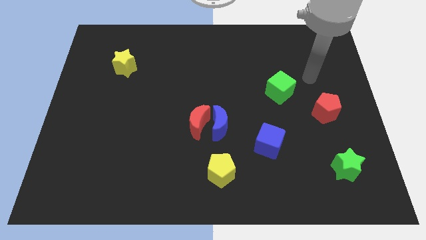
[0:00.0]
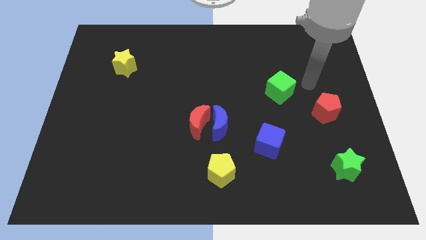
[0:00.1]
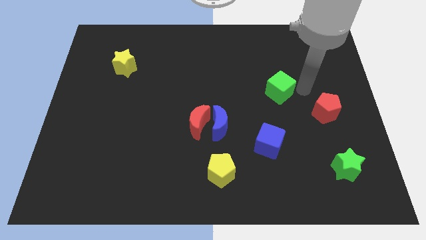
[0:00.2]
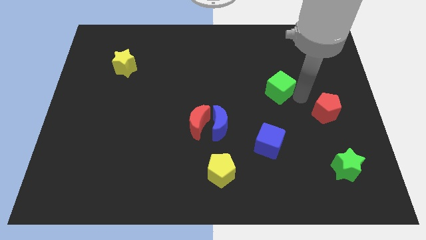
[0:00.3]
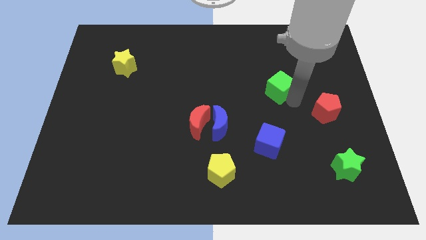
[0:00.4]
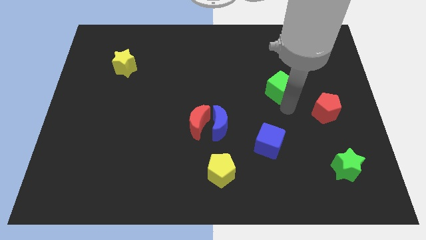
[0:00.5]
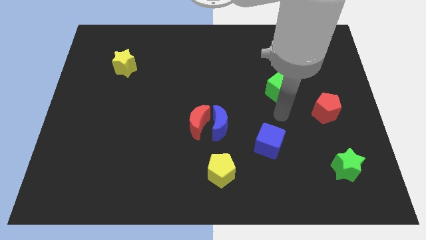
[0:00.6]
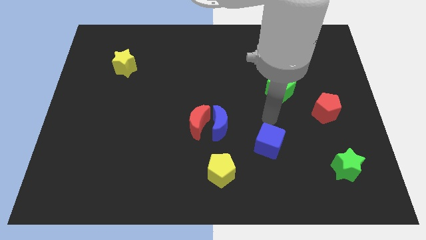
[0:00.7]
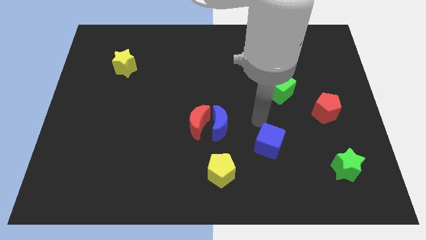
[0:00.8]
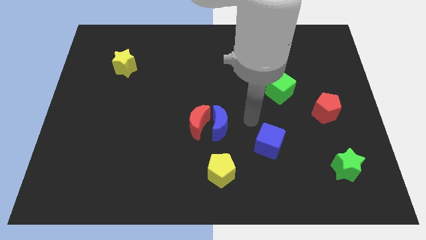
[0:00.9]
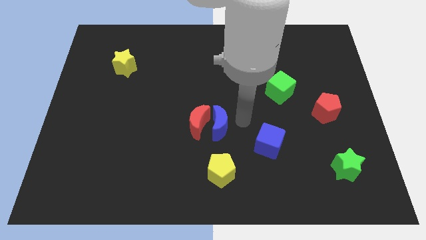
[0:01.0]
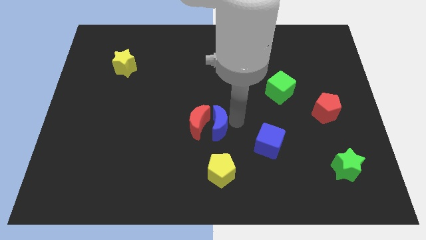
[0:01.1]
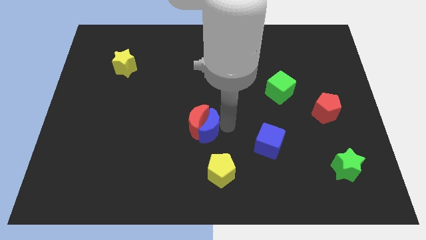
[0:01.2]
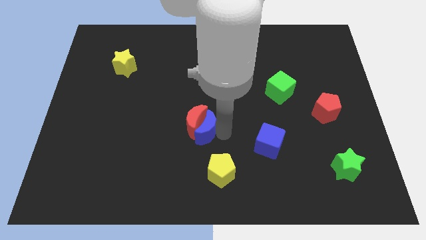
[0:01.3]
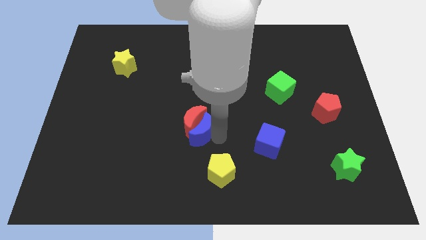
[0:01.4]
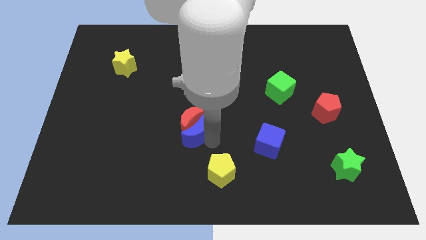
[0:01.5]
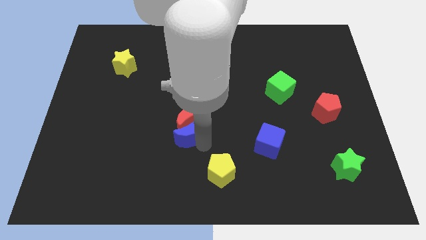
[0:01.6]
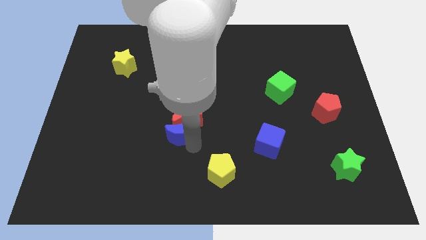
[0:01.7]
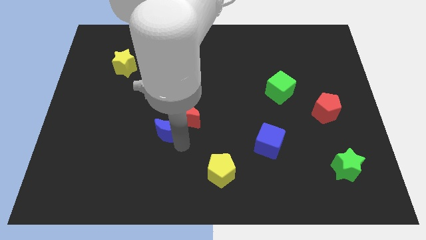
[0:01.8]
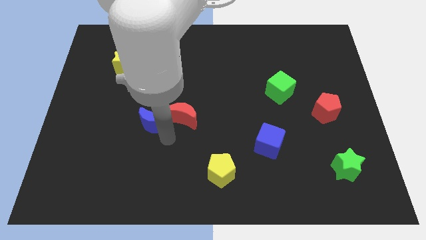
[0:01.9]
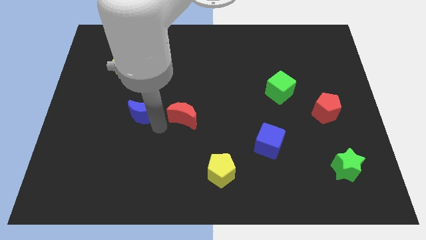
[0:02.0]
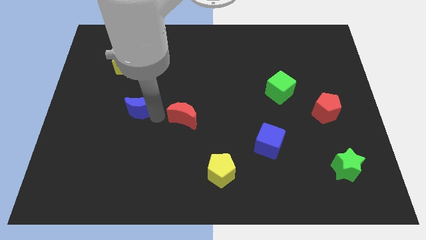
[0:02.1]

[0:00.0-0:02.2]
separate the red moon from the blue moon

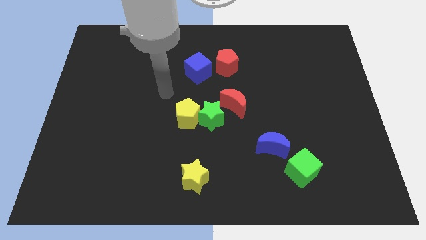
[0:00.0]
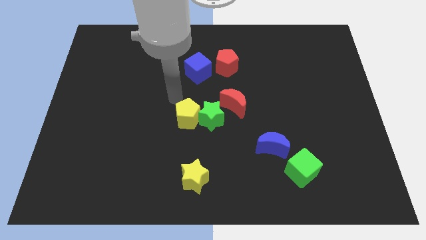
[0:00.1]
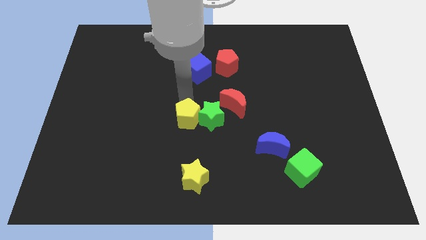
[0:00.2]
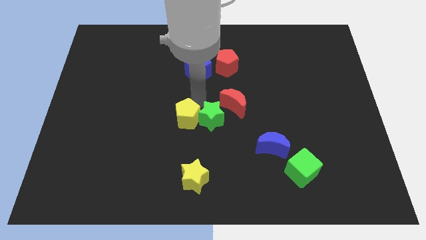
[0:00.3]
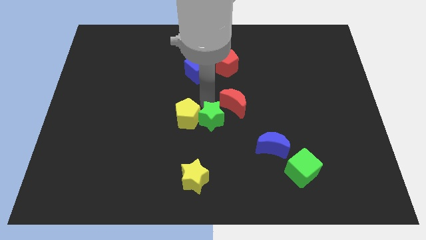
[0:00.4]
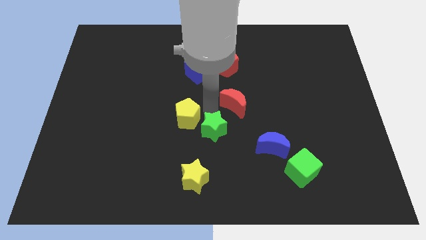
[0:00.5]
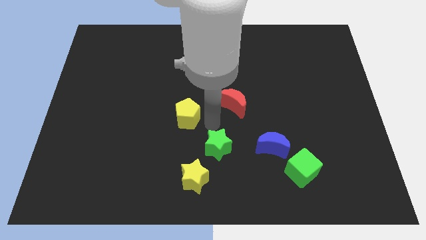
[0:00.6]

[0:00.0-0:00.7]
pull the yellow pentagon apart from the green star

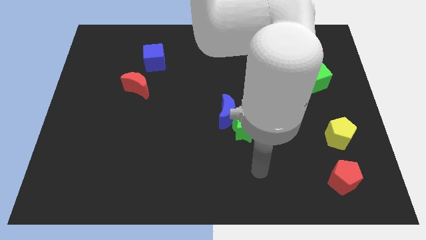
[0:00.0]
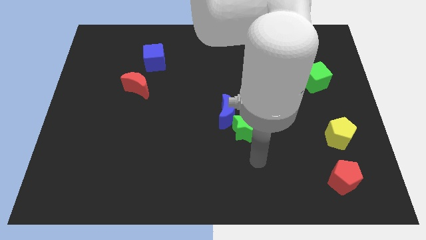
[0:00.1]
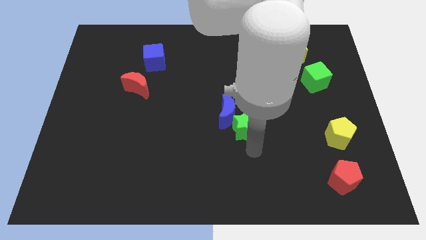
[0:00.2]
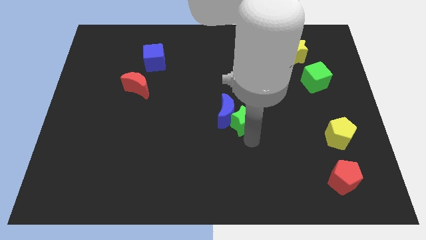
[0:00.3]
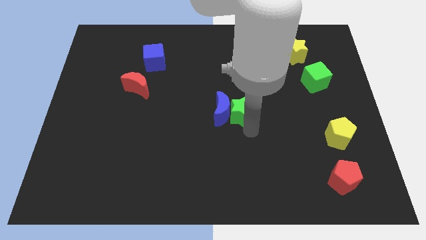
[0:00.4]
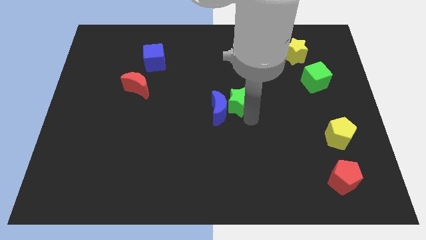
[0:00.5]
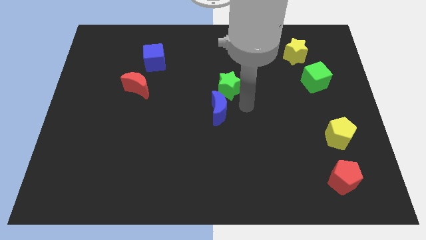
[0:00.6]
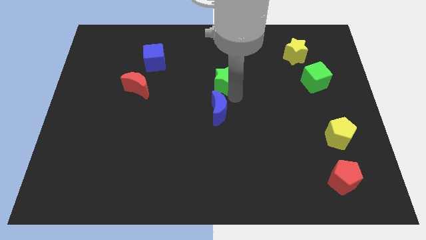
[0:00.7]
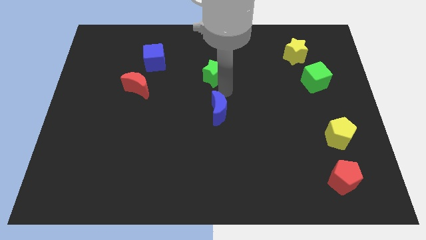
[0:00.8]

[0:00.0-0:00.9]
move the blue moon away from the green star

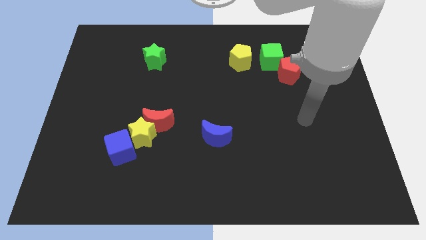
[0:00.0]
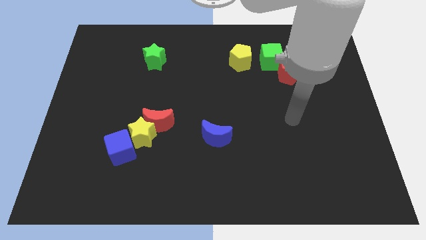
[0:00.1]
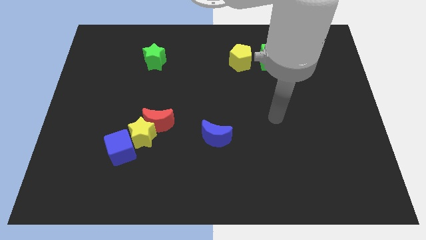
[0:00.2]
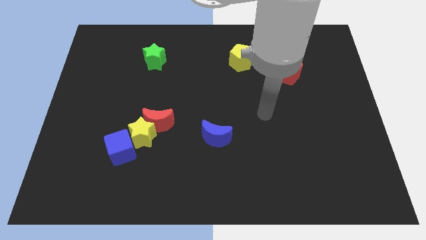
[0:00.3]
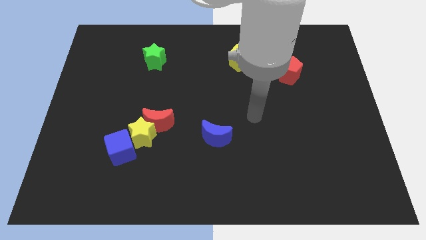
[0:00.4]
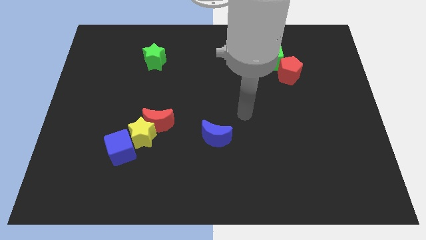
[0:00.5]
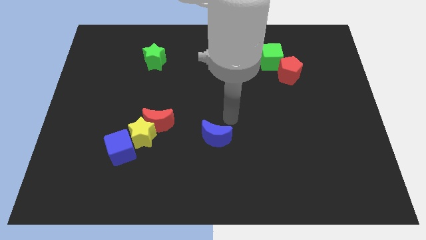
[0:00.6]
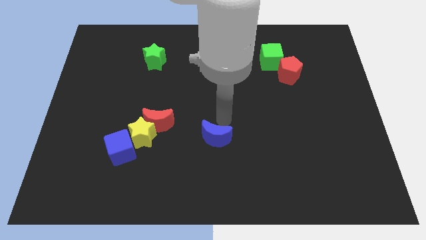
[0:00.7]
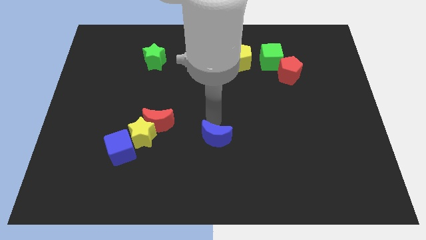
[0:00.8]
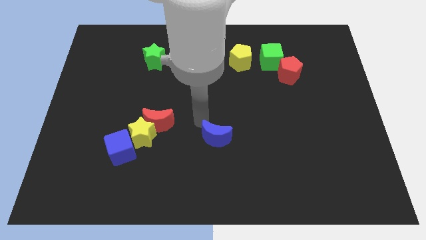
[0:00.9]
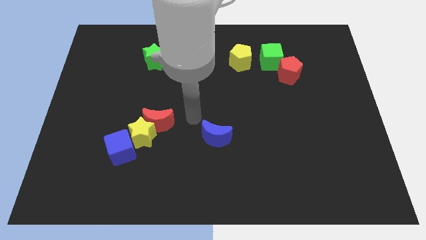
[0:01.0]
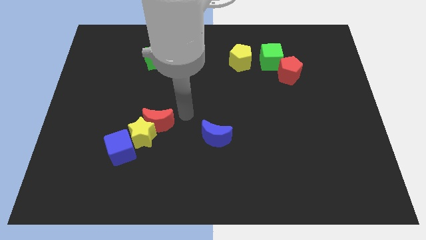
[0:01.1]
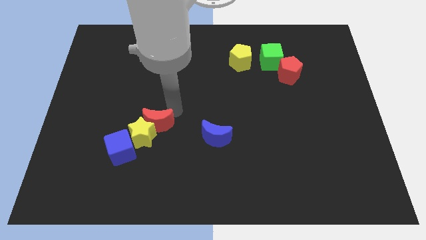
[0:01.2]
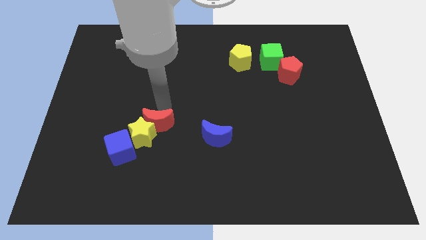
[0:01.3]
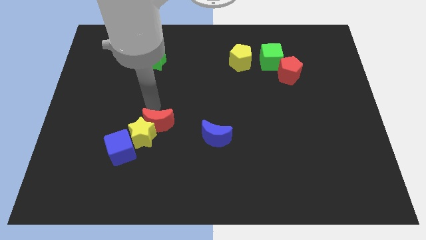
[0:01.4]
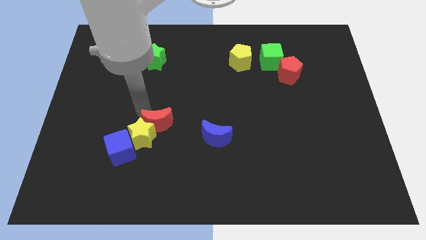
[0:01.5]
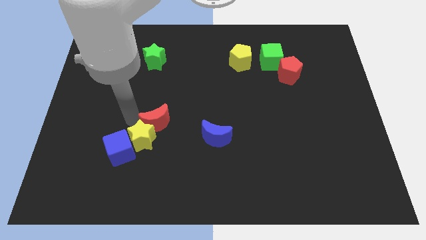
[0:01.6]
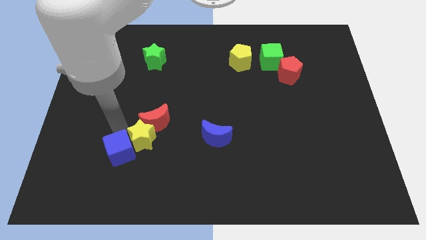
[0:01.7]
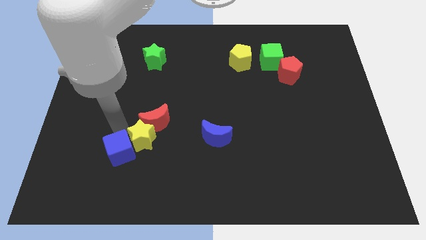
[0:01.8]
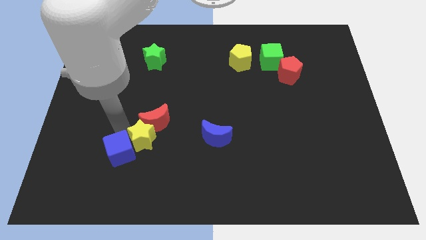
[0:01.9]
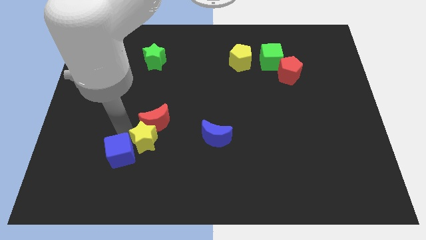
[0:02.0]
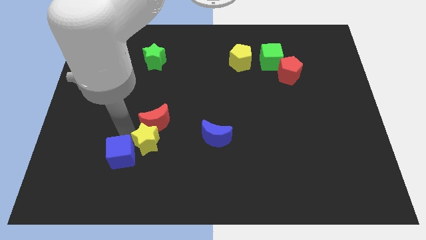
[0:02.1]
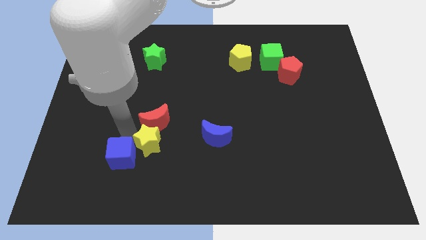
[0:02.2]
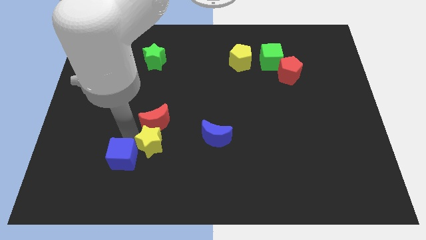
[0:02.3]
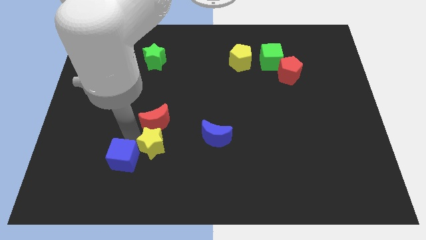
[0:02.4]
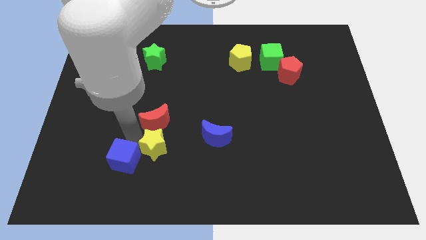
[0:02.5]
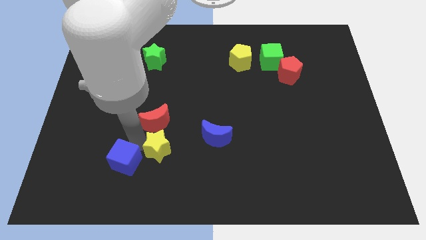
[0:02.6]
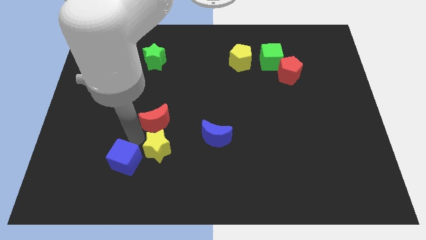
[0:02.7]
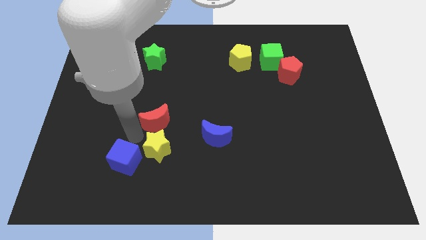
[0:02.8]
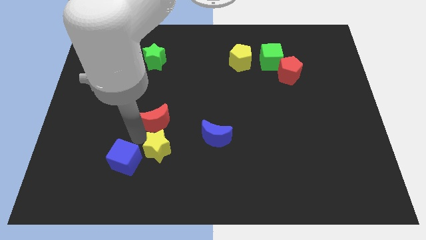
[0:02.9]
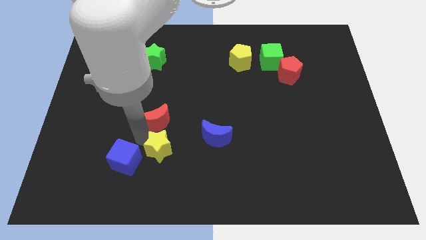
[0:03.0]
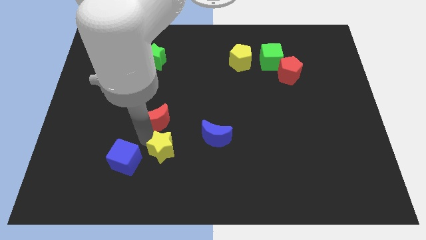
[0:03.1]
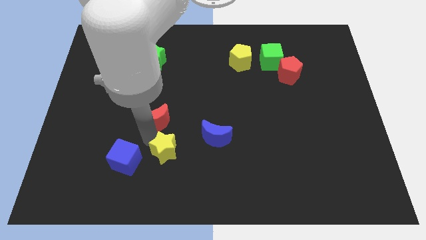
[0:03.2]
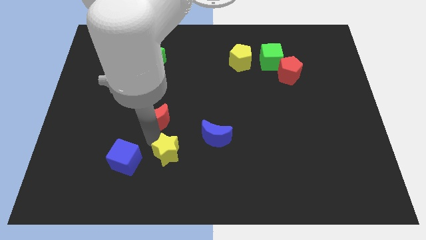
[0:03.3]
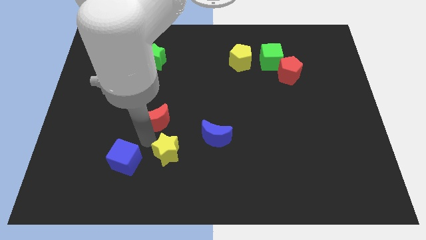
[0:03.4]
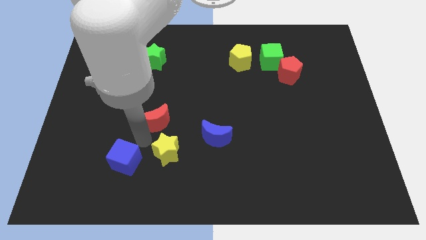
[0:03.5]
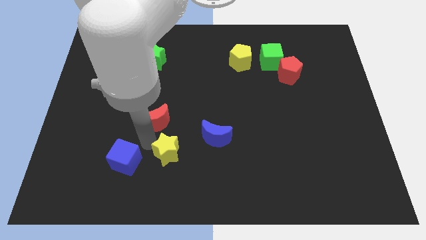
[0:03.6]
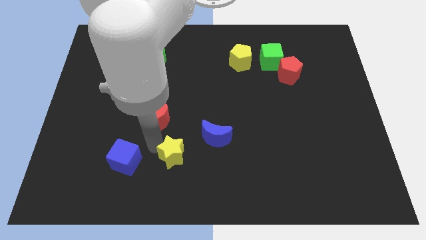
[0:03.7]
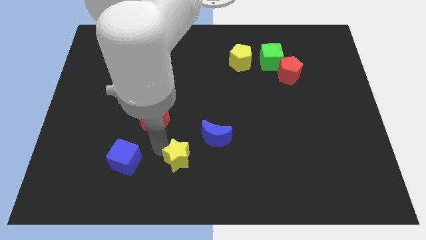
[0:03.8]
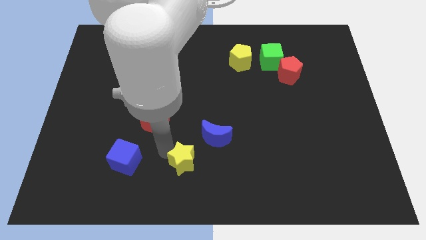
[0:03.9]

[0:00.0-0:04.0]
pull the yellow star apart from the red moon and blue cube

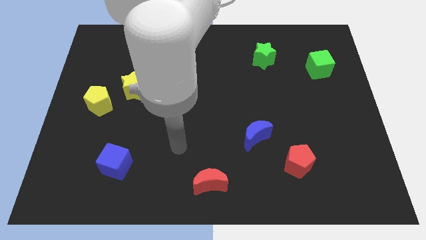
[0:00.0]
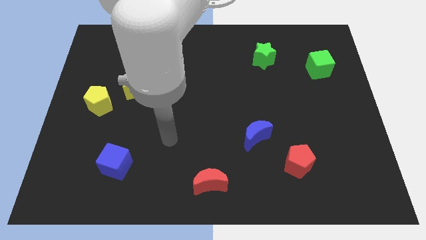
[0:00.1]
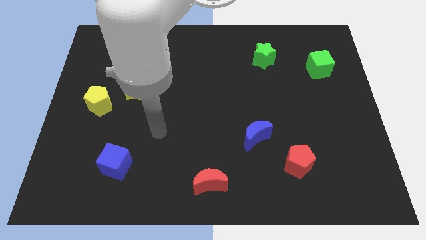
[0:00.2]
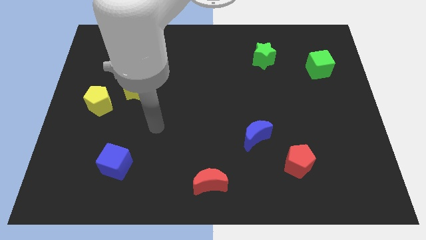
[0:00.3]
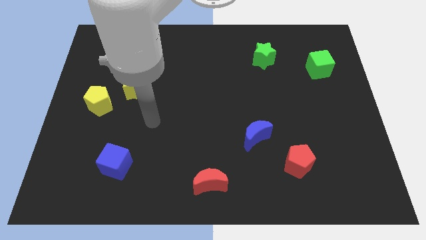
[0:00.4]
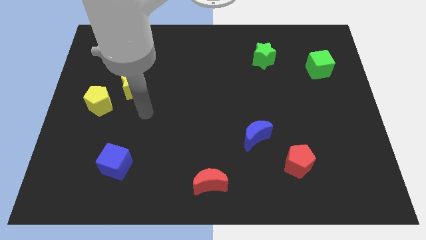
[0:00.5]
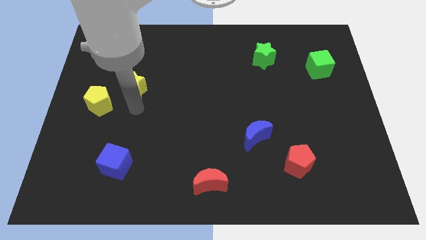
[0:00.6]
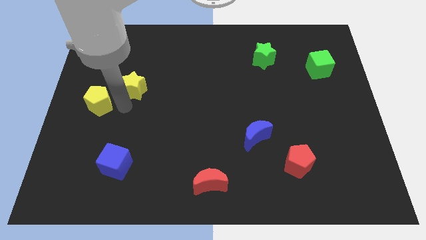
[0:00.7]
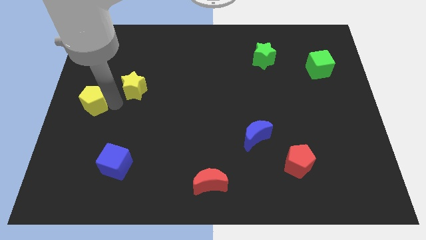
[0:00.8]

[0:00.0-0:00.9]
pull the yellow star apart from the yellow pentagon

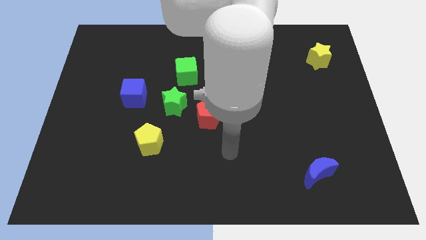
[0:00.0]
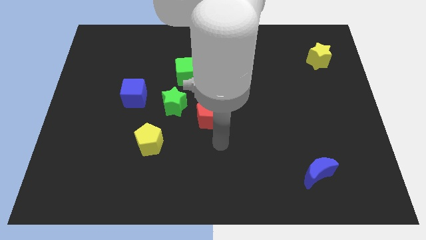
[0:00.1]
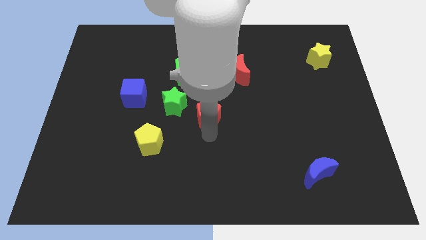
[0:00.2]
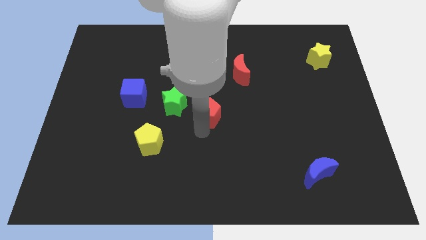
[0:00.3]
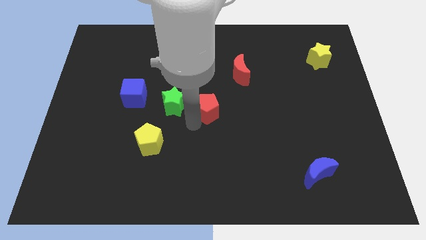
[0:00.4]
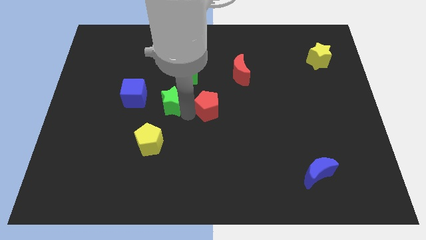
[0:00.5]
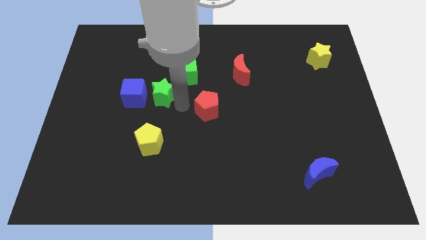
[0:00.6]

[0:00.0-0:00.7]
pull the red pentagon apart from the green star
